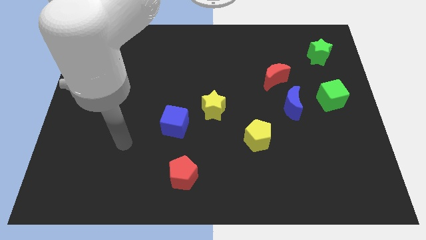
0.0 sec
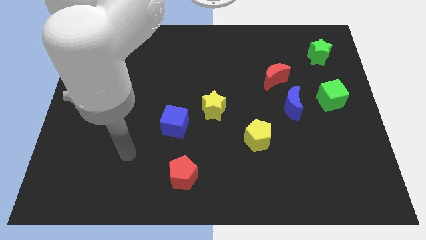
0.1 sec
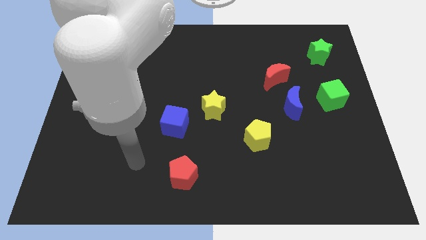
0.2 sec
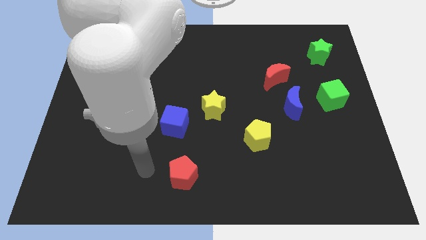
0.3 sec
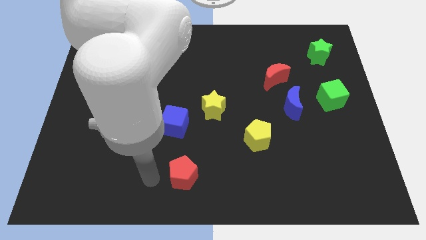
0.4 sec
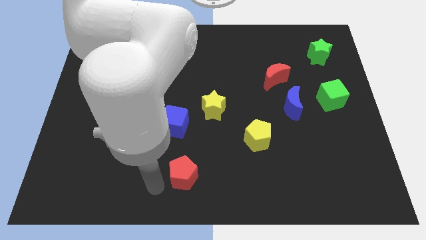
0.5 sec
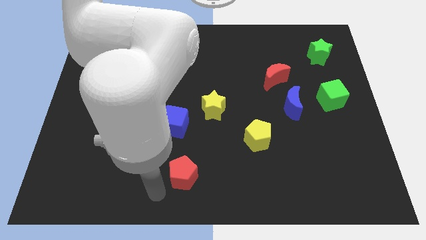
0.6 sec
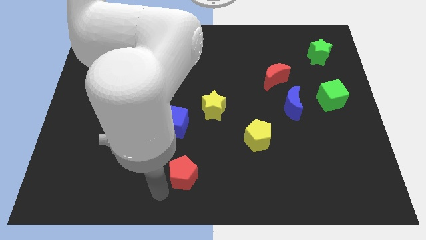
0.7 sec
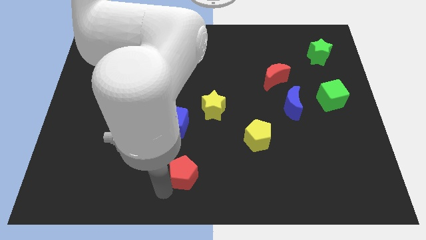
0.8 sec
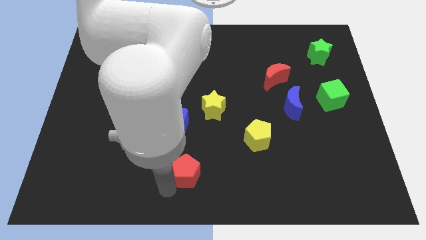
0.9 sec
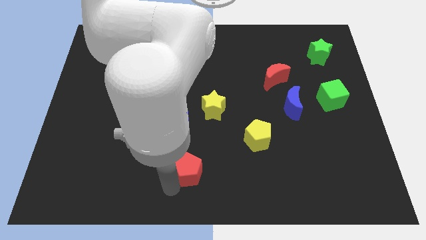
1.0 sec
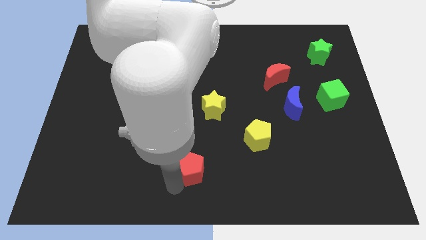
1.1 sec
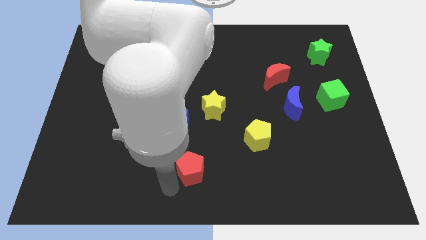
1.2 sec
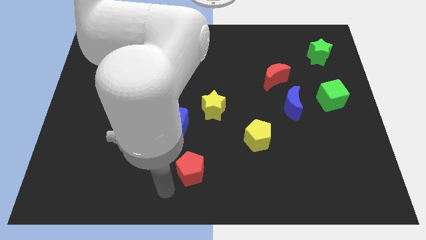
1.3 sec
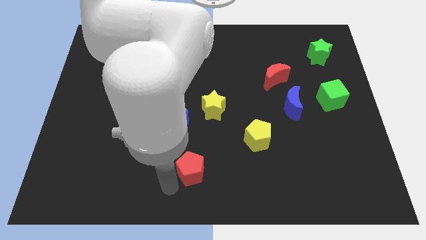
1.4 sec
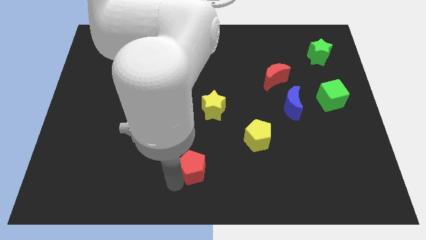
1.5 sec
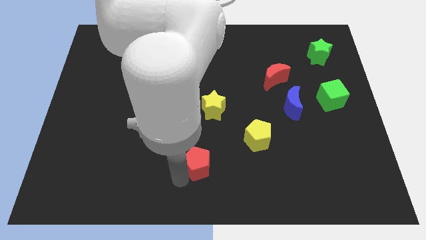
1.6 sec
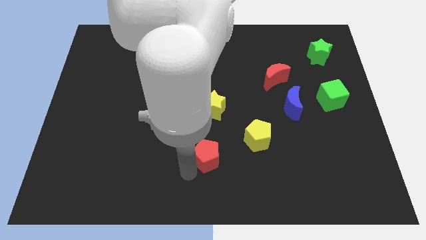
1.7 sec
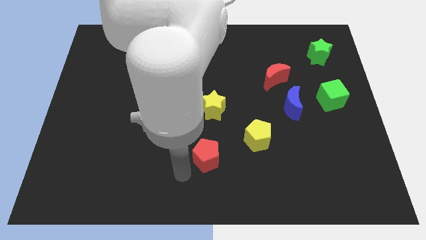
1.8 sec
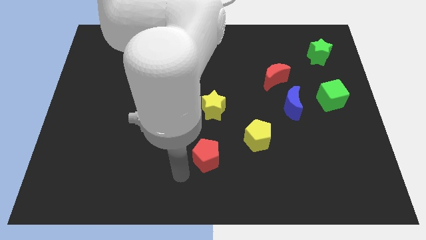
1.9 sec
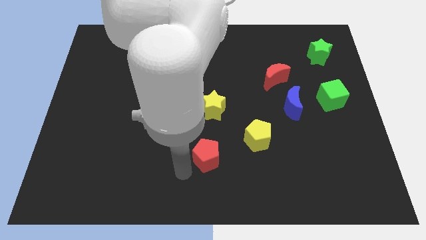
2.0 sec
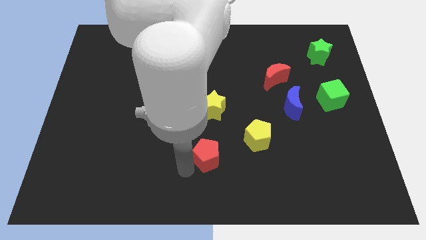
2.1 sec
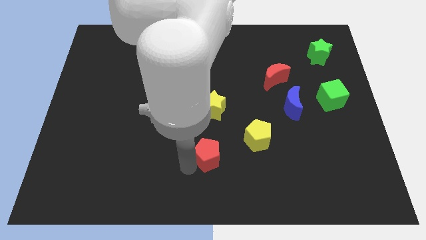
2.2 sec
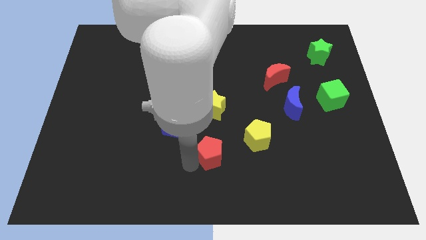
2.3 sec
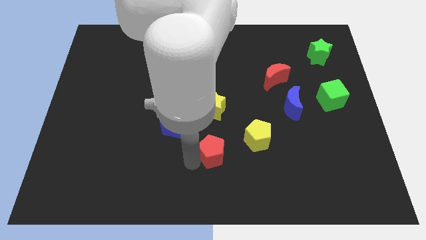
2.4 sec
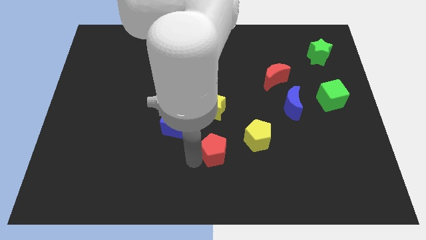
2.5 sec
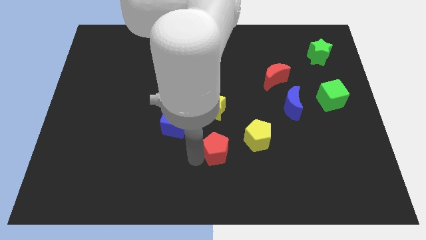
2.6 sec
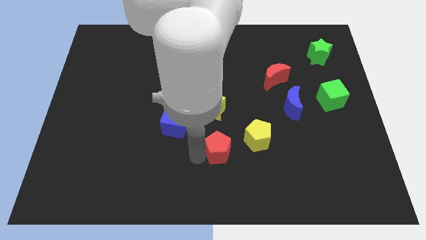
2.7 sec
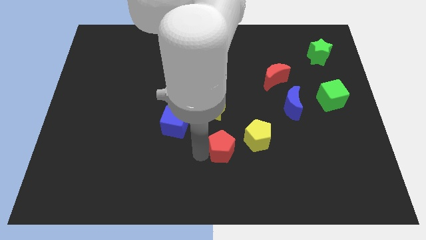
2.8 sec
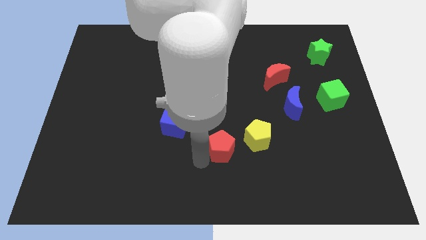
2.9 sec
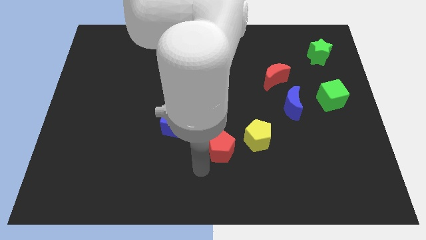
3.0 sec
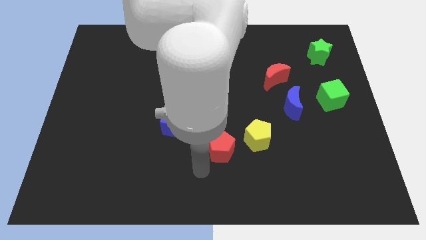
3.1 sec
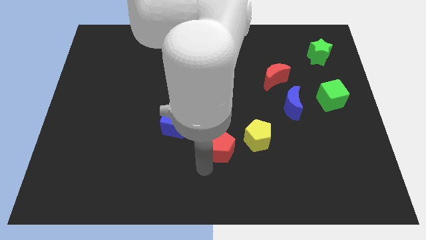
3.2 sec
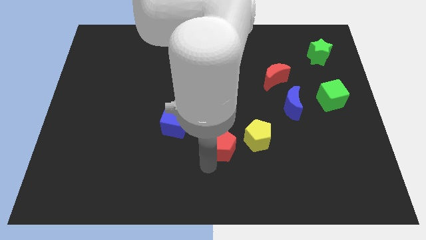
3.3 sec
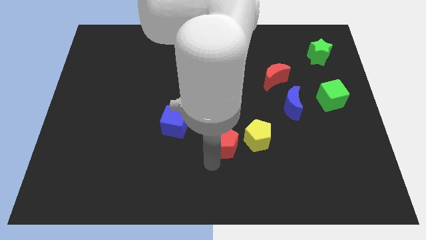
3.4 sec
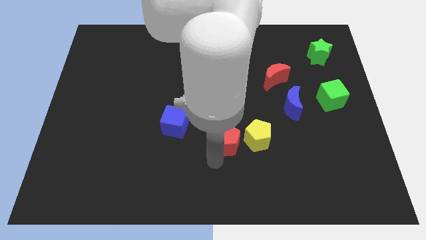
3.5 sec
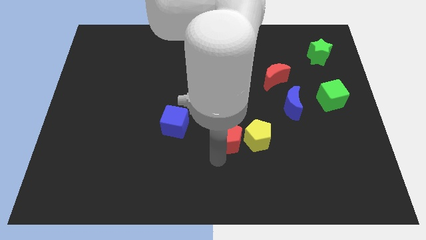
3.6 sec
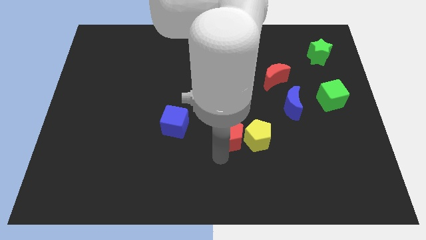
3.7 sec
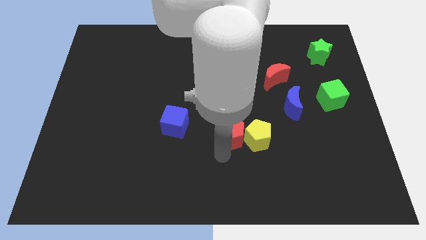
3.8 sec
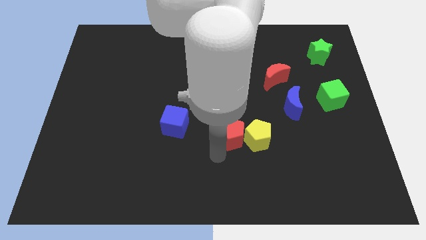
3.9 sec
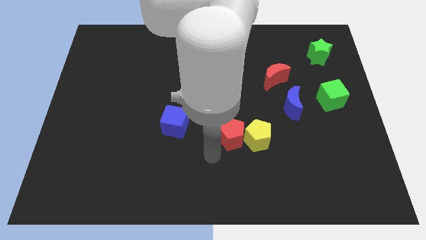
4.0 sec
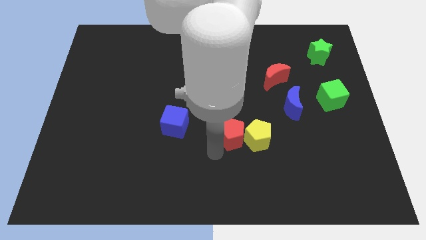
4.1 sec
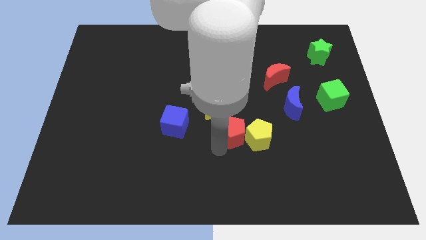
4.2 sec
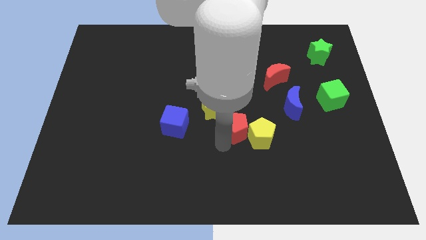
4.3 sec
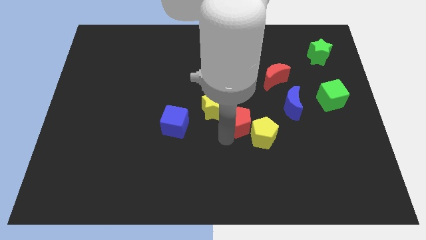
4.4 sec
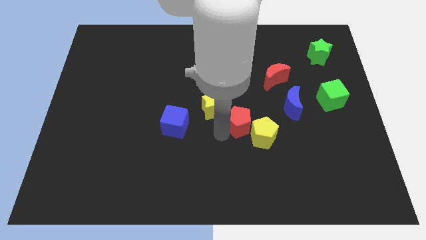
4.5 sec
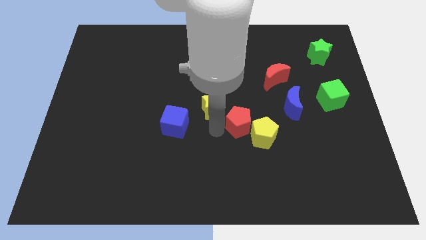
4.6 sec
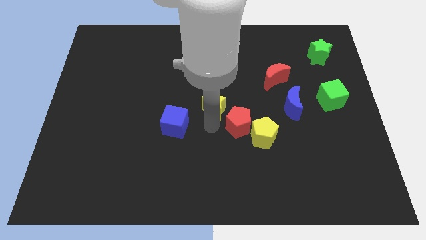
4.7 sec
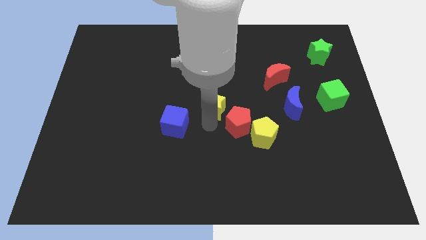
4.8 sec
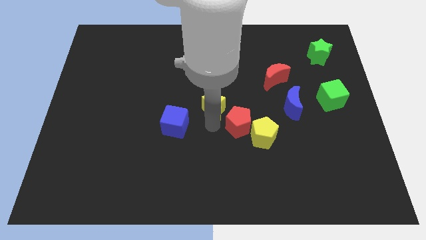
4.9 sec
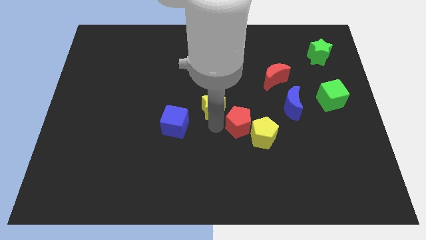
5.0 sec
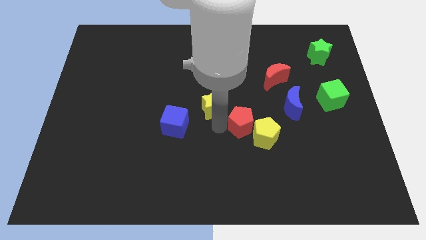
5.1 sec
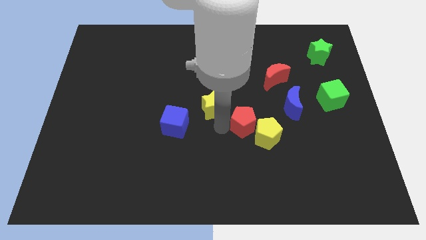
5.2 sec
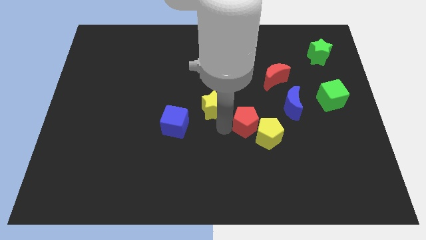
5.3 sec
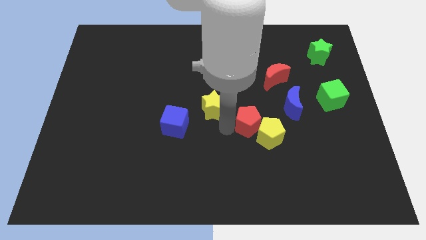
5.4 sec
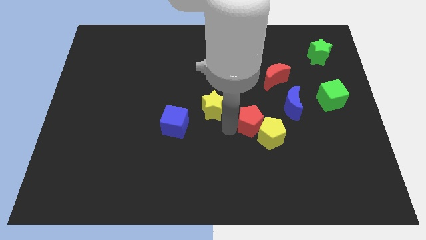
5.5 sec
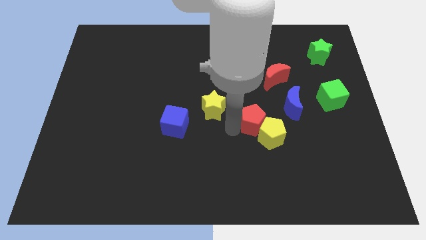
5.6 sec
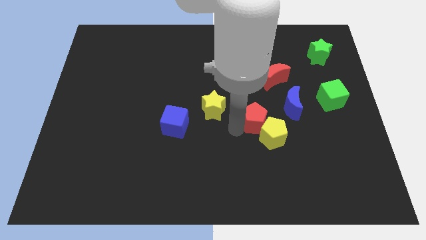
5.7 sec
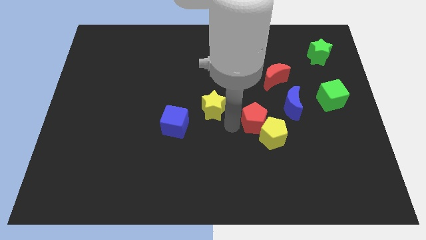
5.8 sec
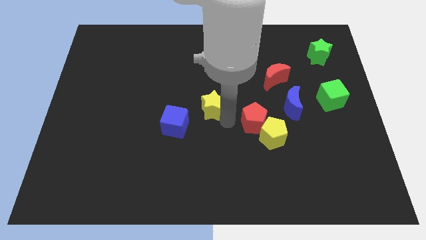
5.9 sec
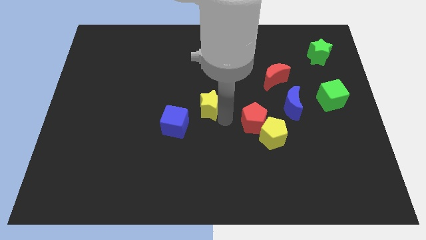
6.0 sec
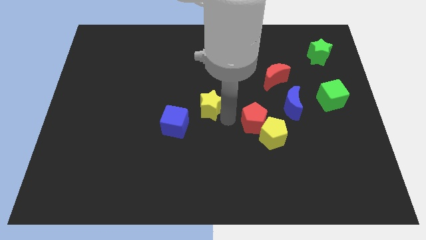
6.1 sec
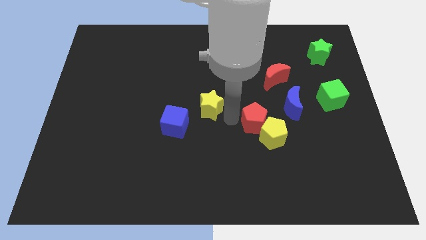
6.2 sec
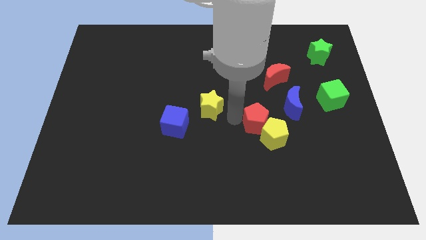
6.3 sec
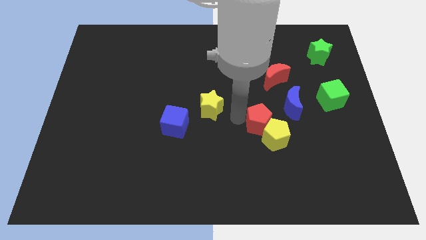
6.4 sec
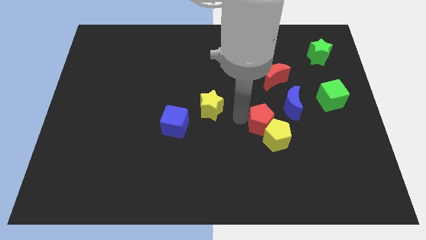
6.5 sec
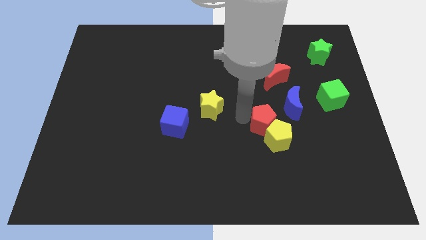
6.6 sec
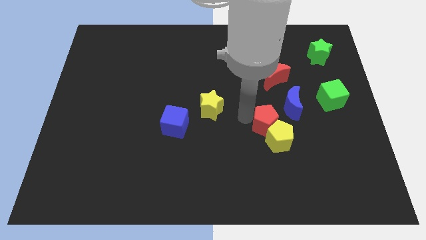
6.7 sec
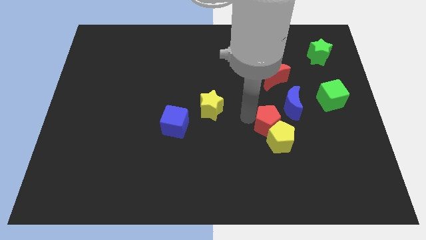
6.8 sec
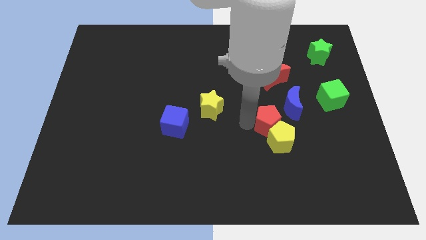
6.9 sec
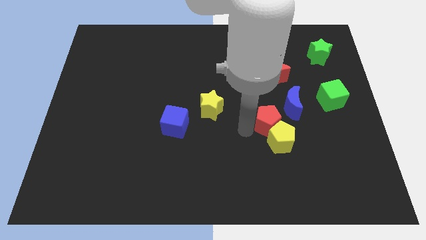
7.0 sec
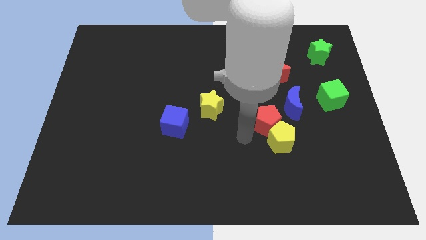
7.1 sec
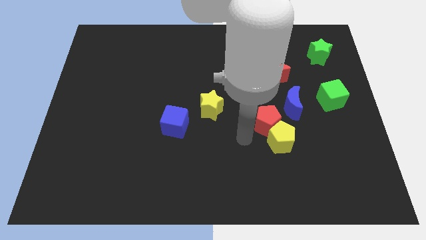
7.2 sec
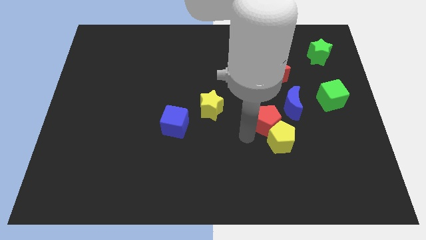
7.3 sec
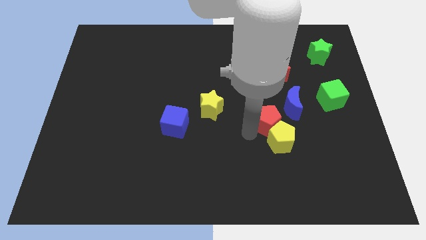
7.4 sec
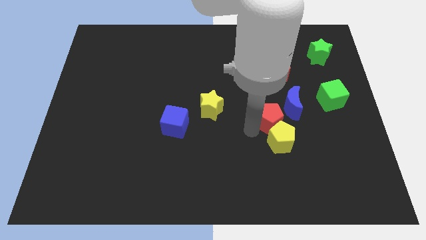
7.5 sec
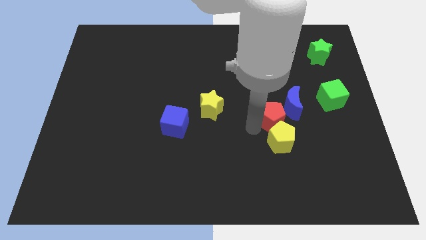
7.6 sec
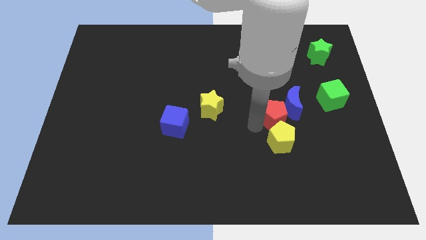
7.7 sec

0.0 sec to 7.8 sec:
move the red pentagon close to the blue moon

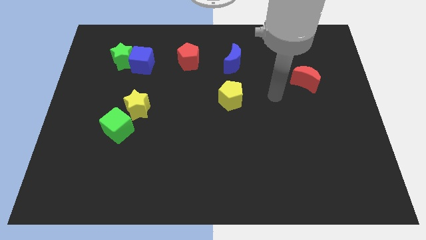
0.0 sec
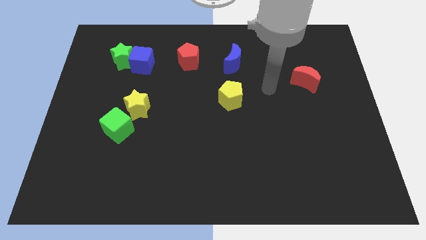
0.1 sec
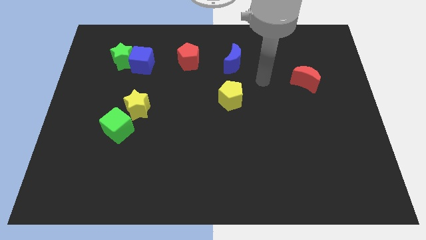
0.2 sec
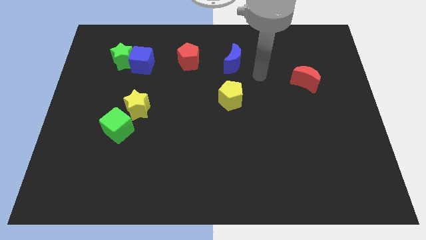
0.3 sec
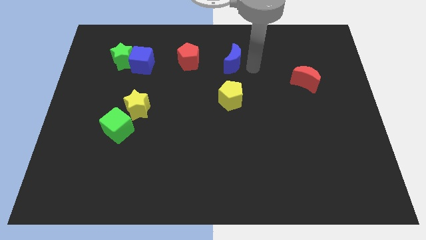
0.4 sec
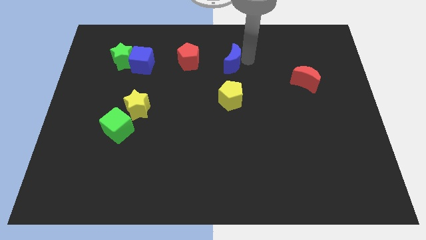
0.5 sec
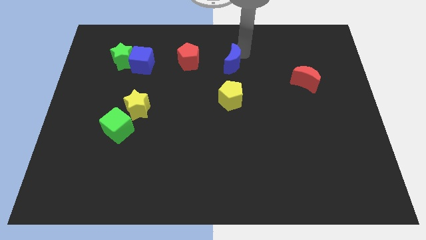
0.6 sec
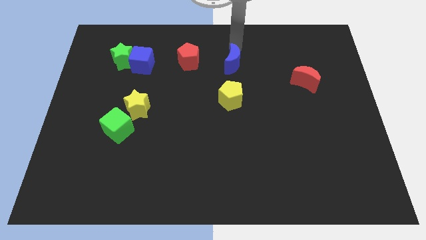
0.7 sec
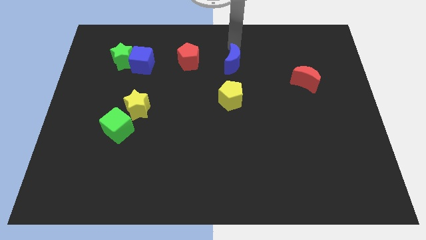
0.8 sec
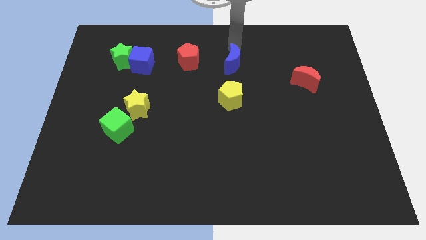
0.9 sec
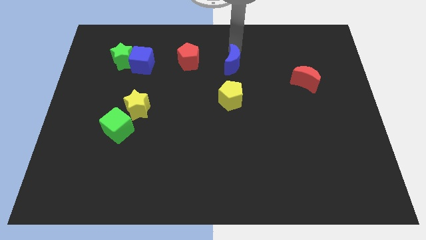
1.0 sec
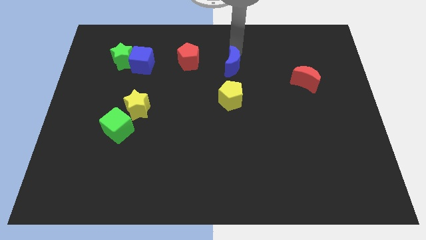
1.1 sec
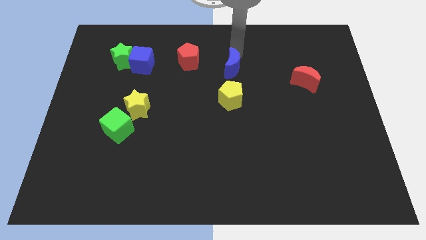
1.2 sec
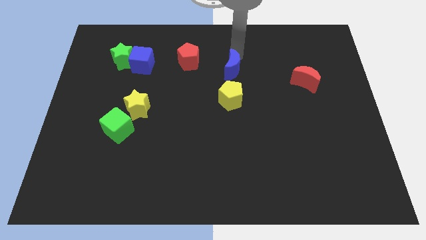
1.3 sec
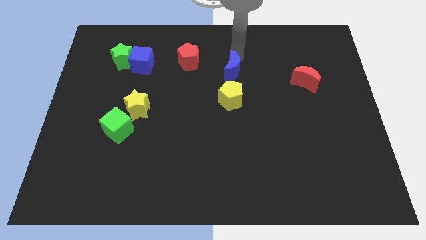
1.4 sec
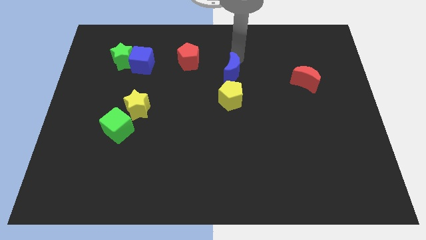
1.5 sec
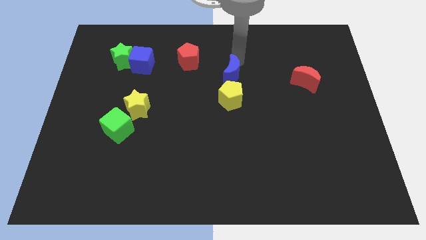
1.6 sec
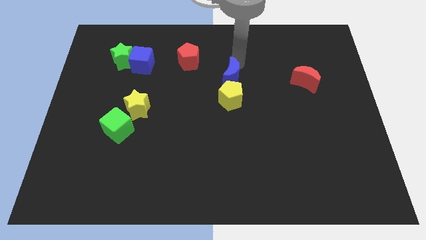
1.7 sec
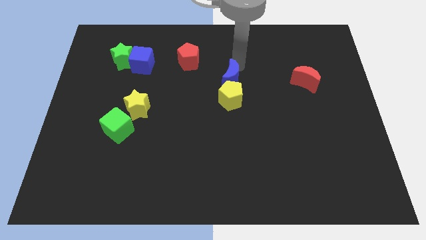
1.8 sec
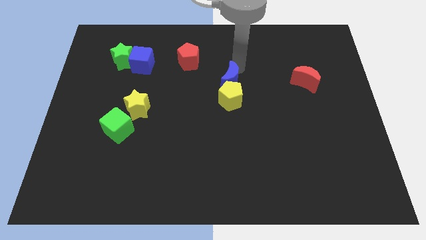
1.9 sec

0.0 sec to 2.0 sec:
push the blue moon close to the yellow pentagon
